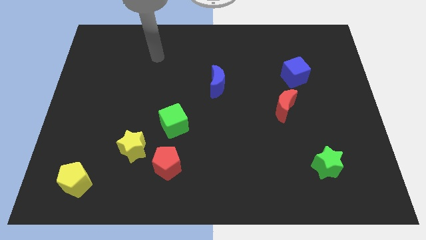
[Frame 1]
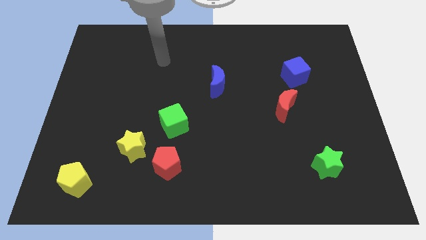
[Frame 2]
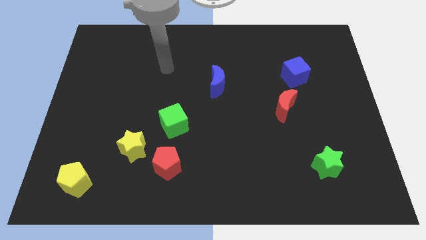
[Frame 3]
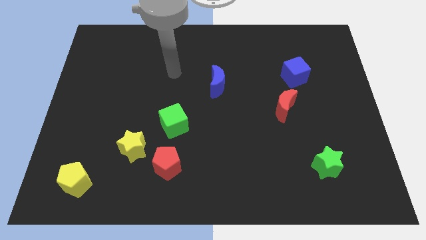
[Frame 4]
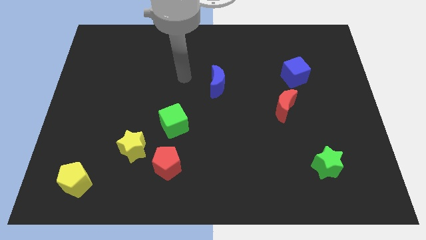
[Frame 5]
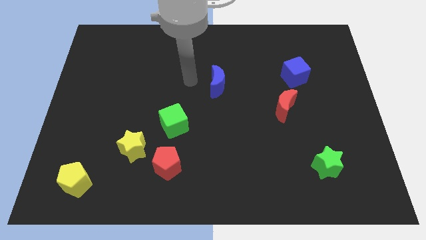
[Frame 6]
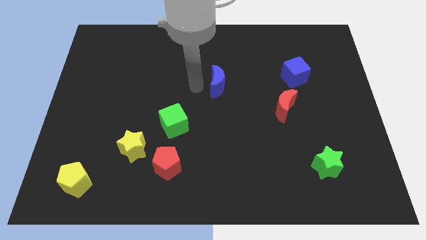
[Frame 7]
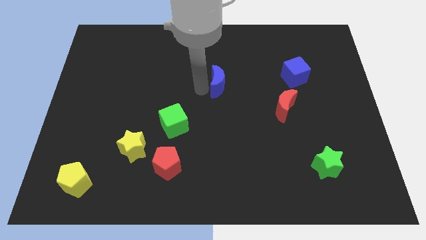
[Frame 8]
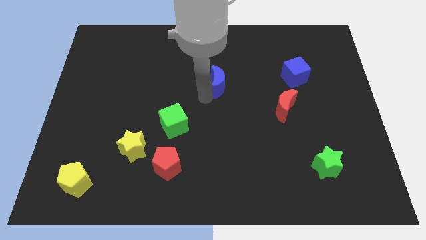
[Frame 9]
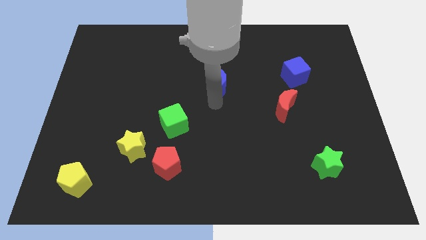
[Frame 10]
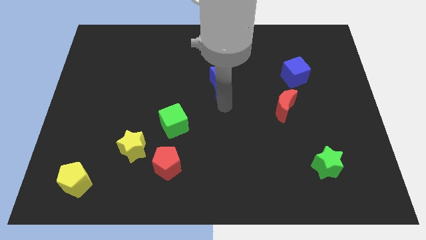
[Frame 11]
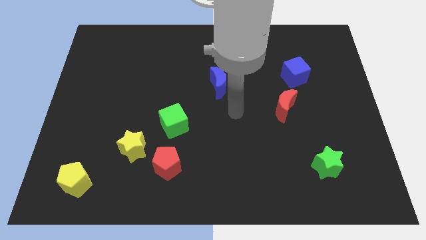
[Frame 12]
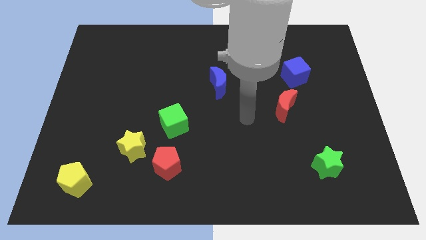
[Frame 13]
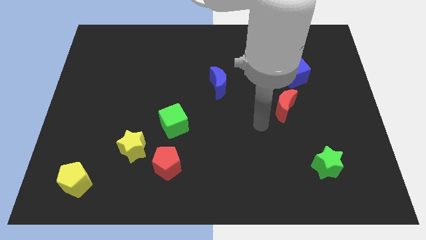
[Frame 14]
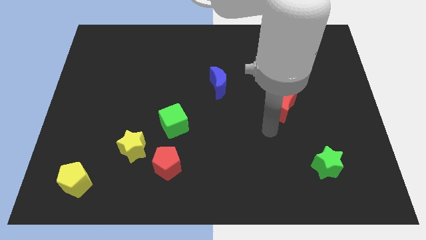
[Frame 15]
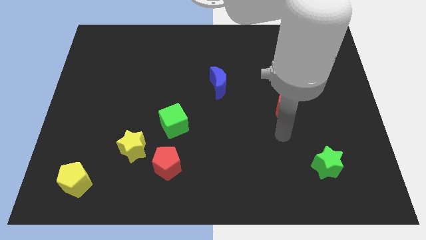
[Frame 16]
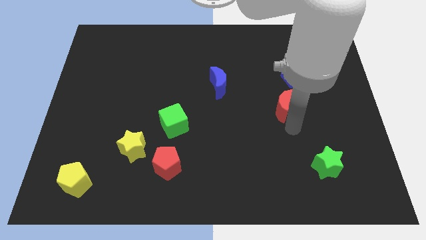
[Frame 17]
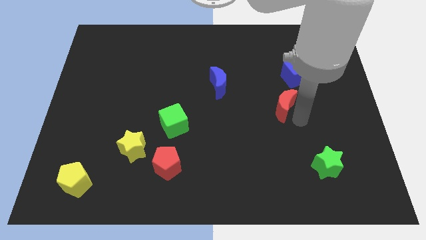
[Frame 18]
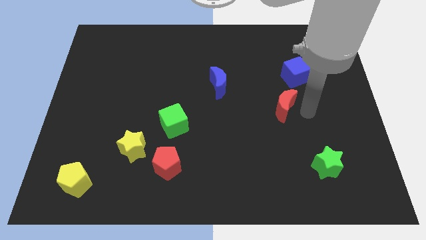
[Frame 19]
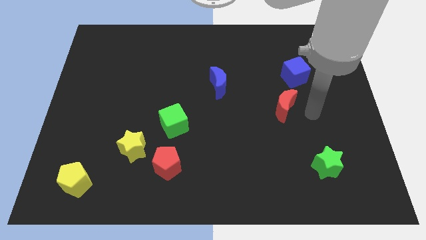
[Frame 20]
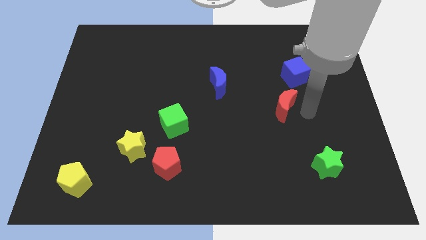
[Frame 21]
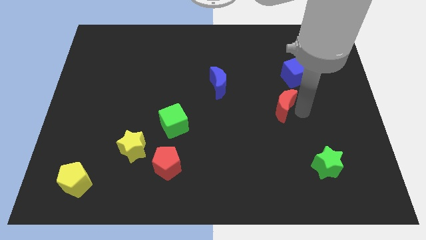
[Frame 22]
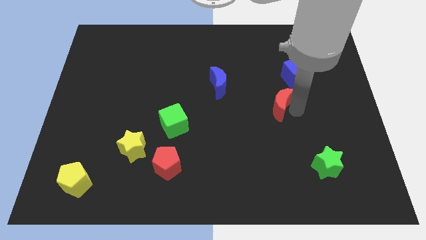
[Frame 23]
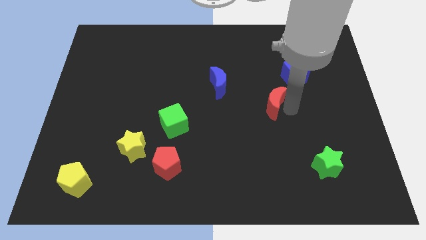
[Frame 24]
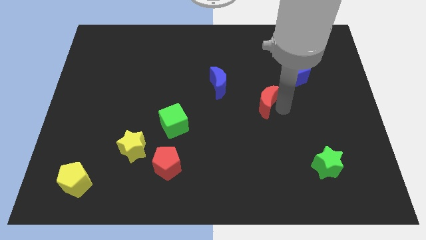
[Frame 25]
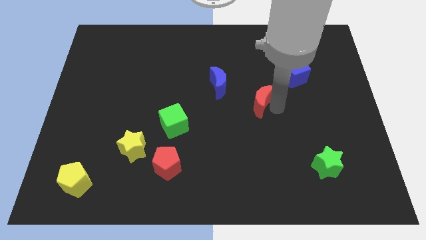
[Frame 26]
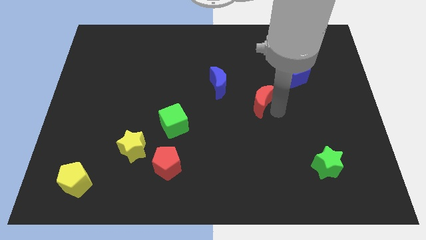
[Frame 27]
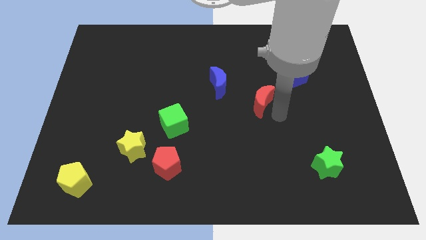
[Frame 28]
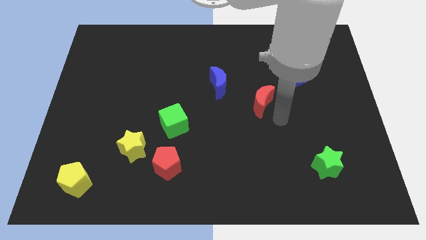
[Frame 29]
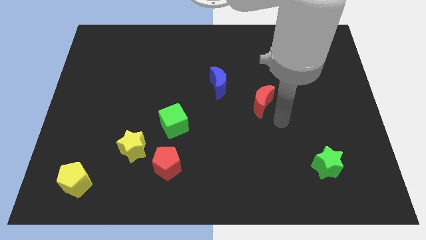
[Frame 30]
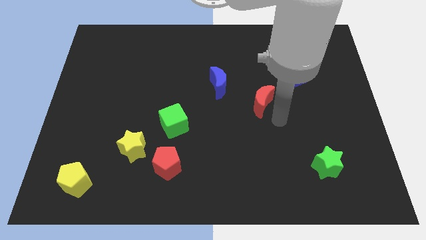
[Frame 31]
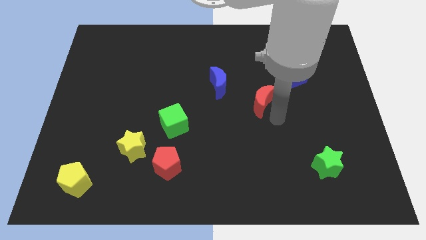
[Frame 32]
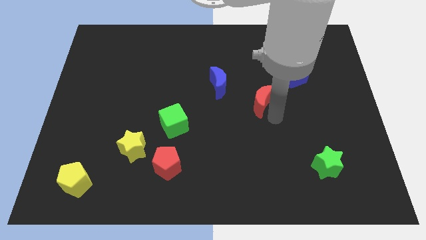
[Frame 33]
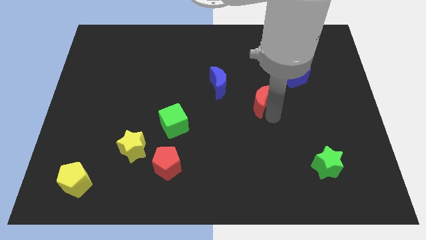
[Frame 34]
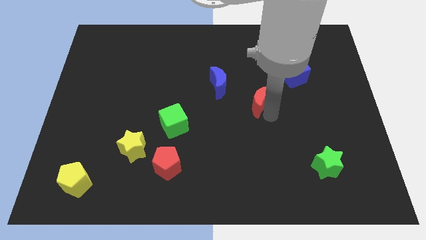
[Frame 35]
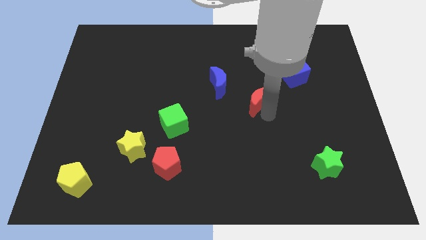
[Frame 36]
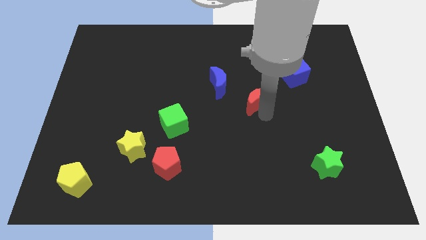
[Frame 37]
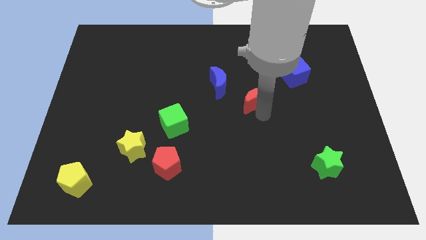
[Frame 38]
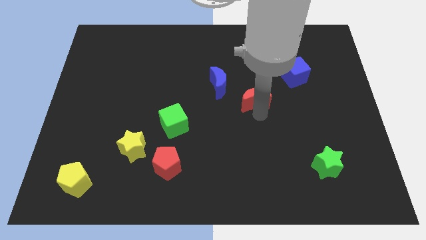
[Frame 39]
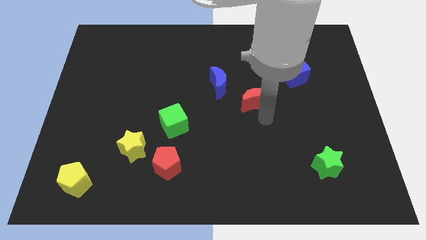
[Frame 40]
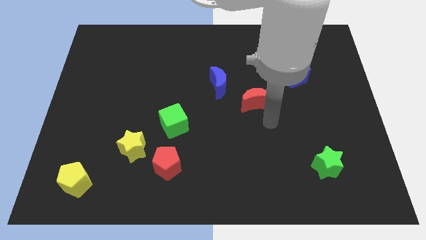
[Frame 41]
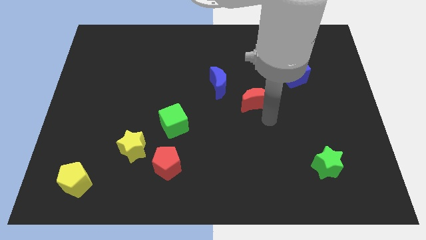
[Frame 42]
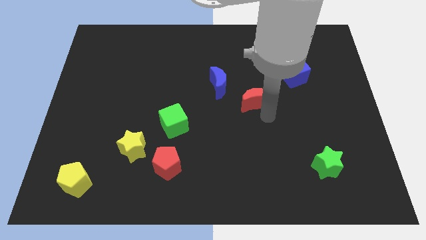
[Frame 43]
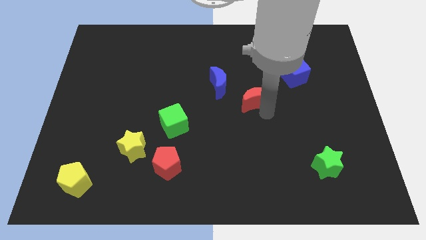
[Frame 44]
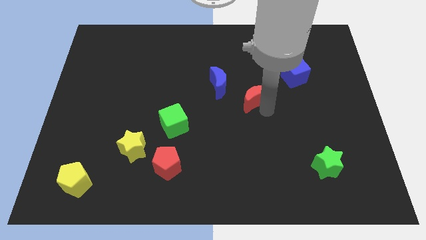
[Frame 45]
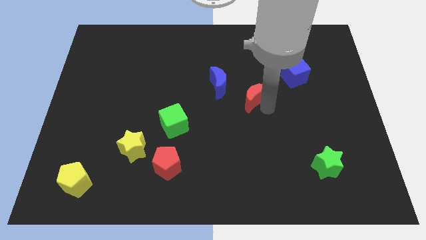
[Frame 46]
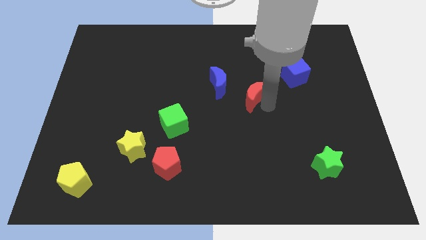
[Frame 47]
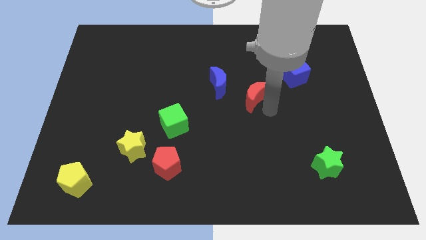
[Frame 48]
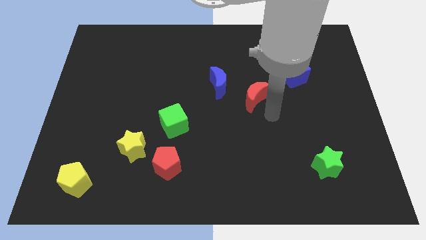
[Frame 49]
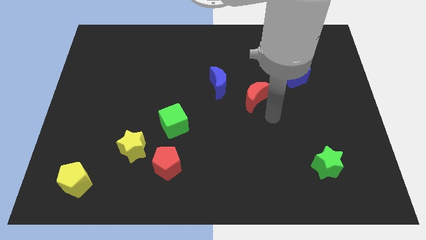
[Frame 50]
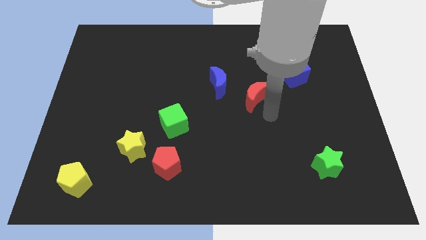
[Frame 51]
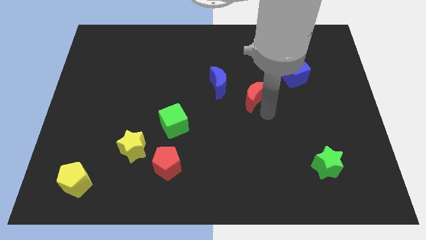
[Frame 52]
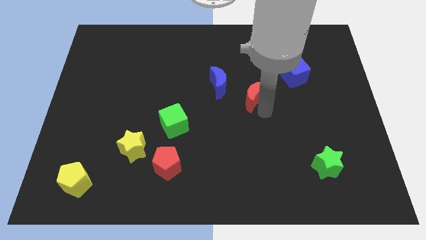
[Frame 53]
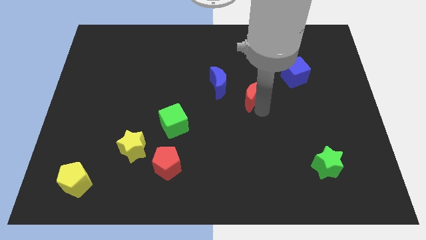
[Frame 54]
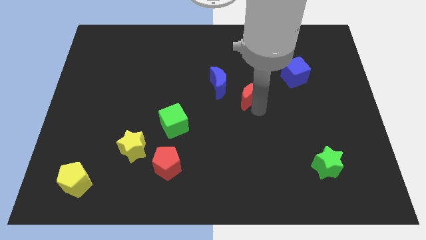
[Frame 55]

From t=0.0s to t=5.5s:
push the red moon slightly diagonally up and to the left

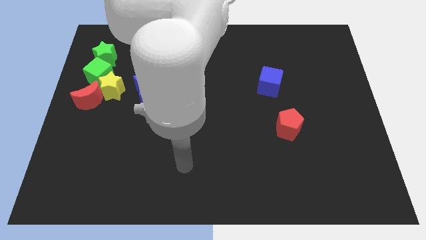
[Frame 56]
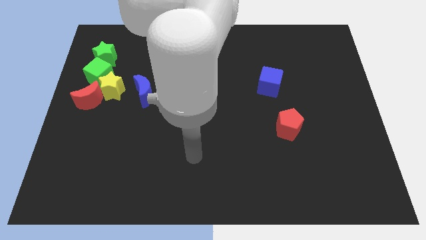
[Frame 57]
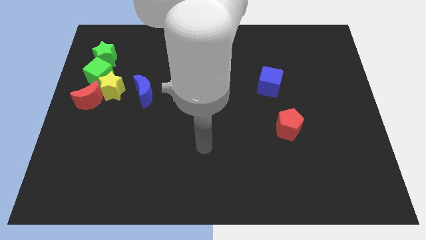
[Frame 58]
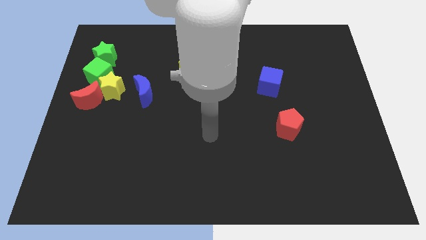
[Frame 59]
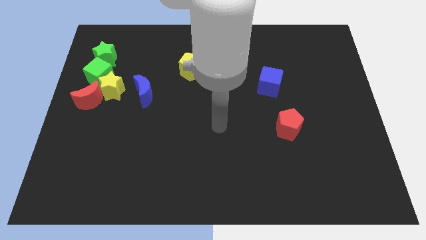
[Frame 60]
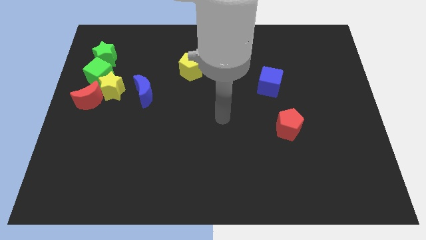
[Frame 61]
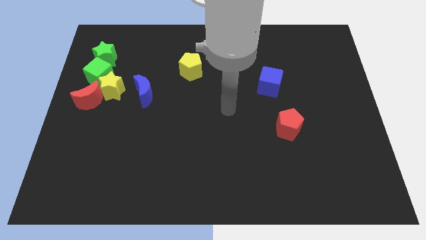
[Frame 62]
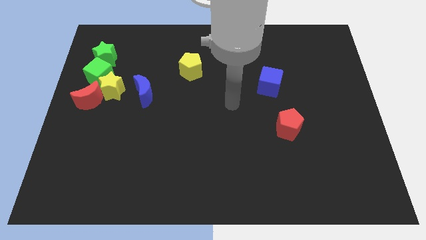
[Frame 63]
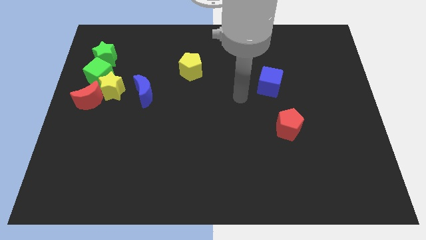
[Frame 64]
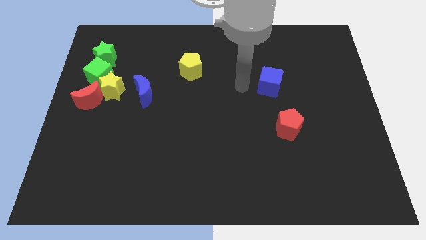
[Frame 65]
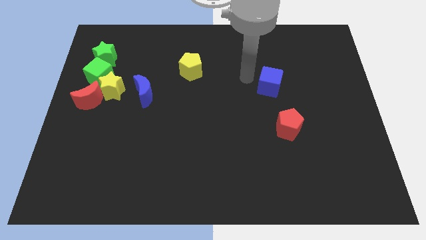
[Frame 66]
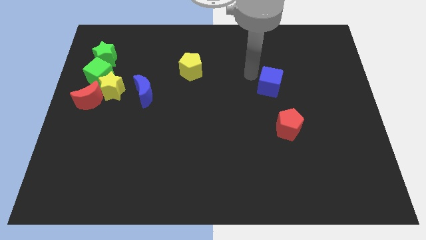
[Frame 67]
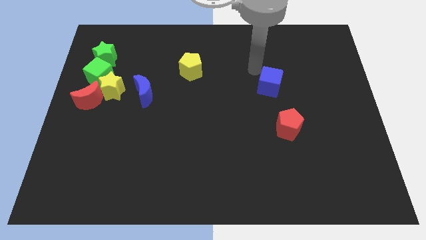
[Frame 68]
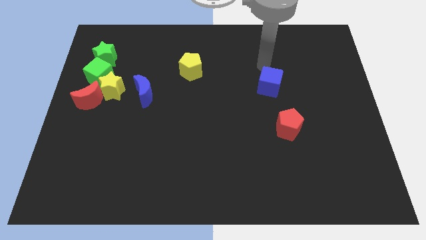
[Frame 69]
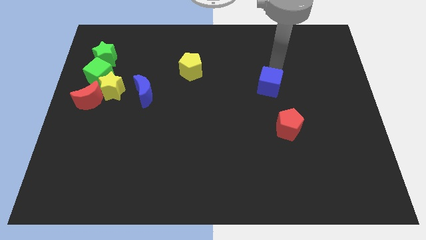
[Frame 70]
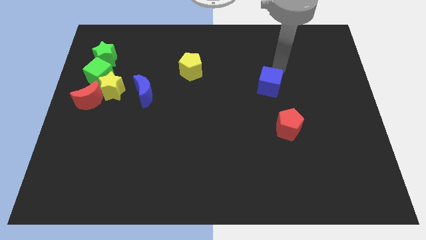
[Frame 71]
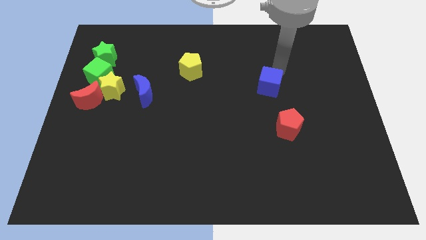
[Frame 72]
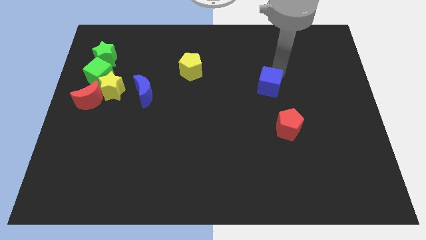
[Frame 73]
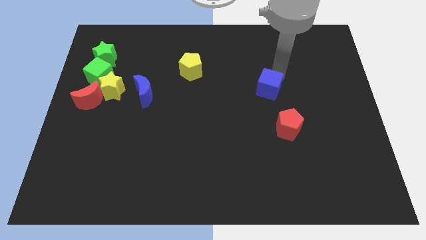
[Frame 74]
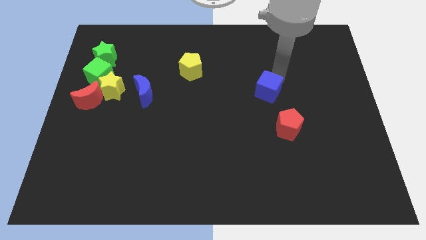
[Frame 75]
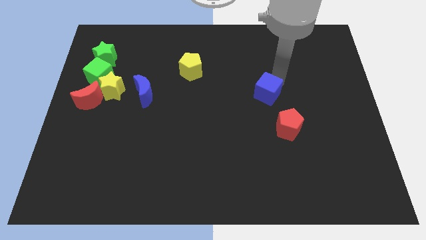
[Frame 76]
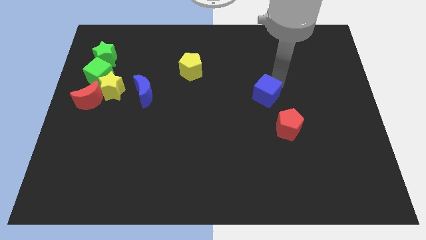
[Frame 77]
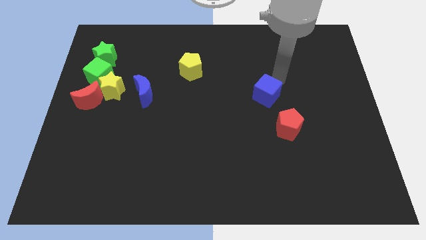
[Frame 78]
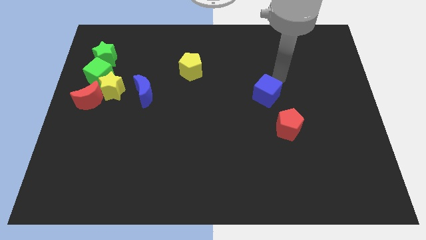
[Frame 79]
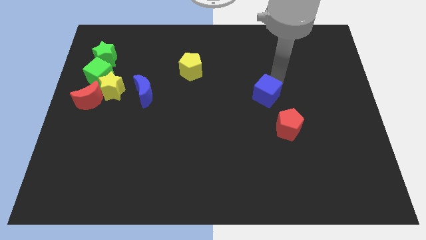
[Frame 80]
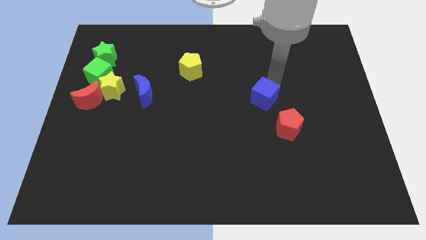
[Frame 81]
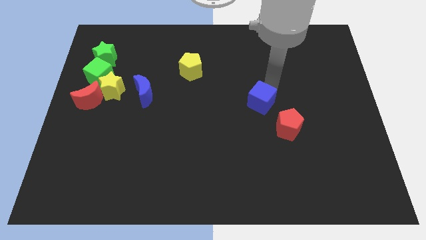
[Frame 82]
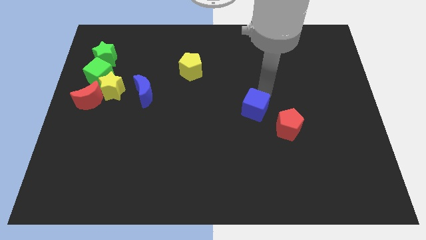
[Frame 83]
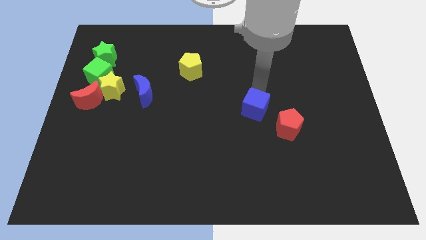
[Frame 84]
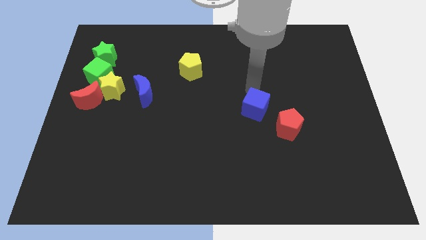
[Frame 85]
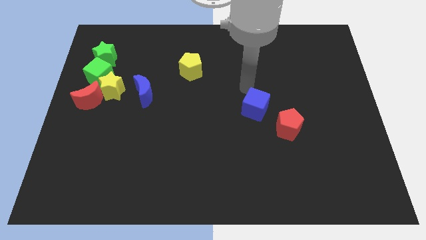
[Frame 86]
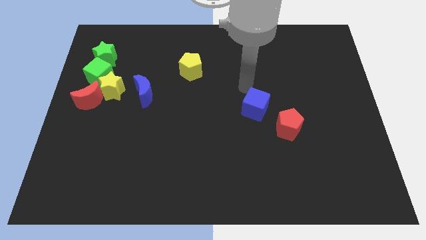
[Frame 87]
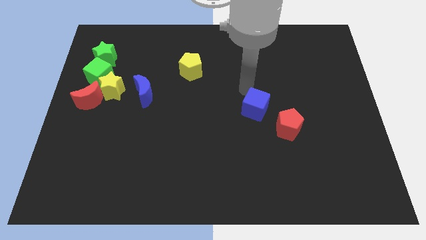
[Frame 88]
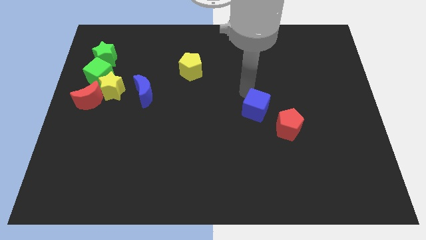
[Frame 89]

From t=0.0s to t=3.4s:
slide the blue cube down somewhat
